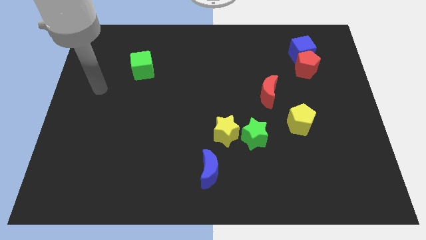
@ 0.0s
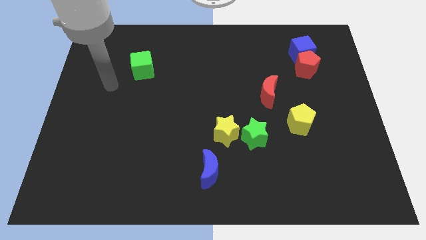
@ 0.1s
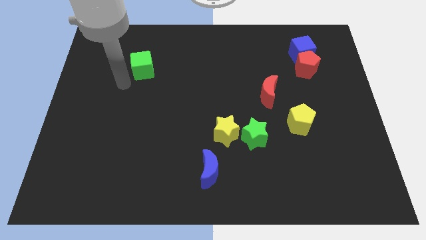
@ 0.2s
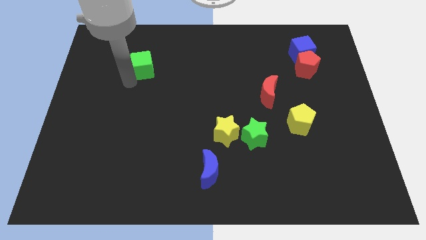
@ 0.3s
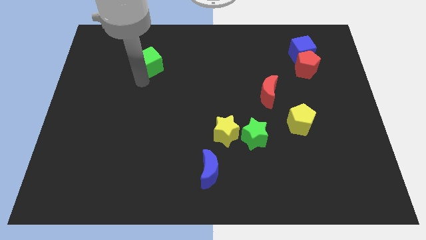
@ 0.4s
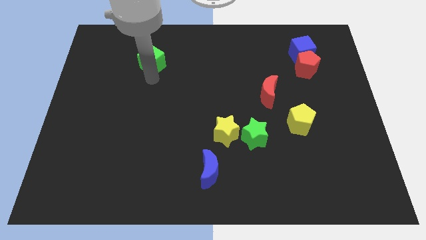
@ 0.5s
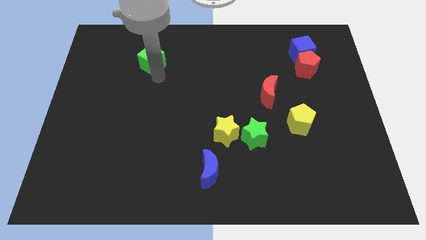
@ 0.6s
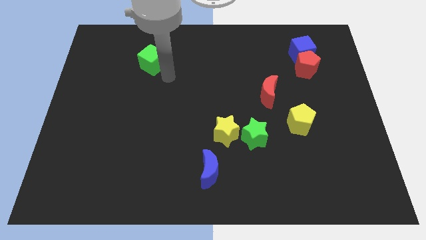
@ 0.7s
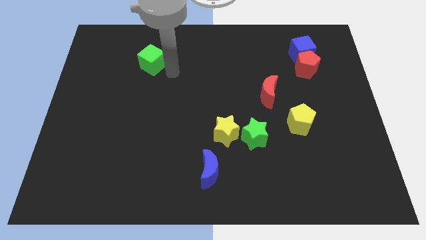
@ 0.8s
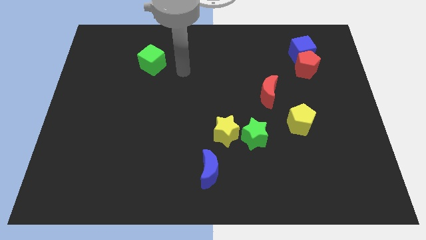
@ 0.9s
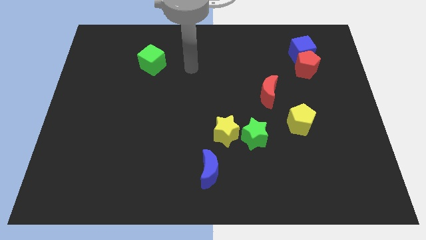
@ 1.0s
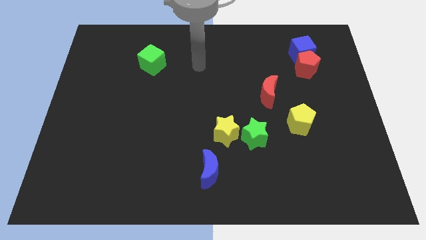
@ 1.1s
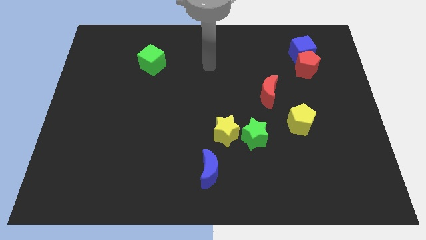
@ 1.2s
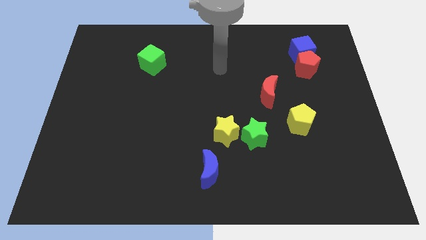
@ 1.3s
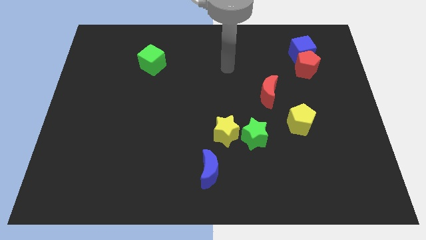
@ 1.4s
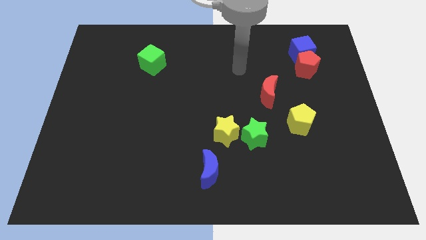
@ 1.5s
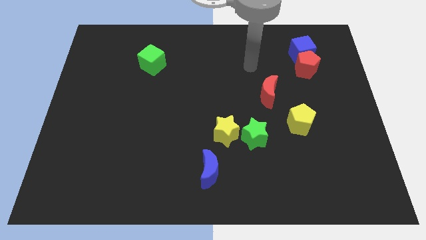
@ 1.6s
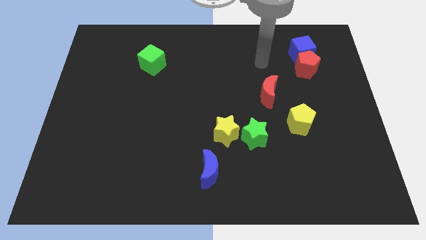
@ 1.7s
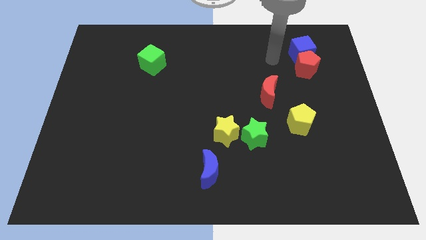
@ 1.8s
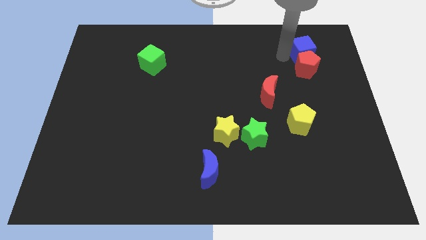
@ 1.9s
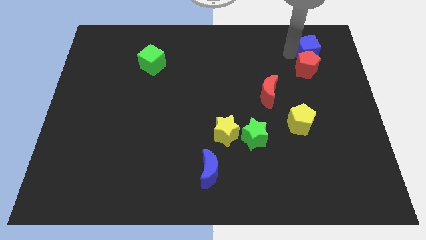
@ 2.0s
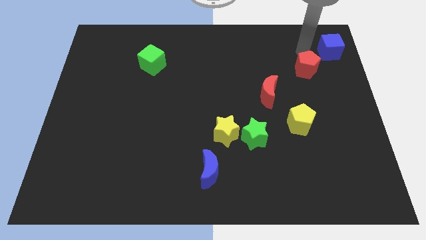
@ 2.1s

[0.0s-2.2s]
move the red pentagon away from the blue cube

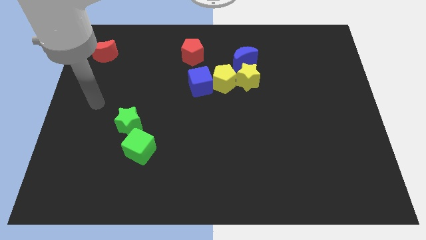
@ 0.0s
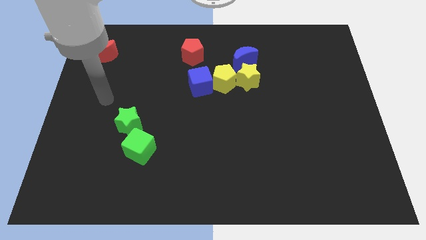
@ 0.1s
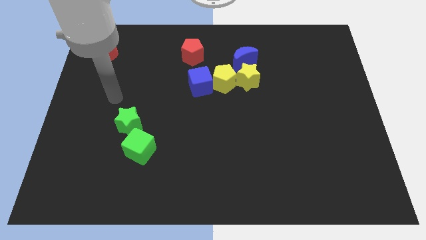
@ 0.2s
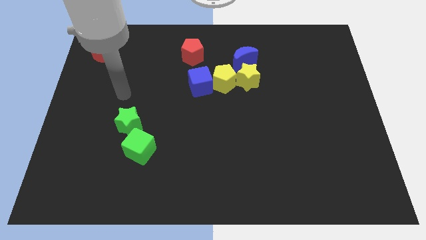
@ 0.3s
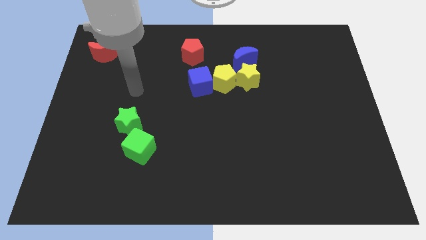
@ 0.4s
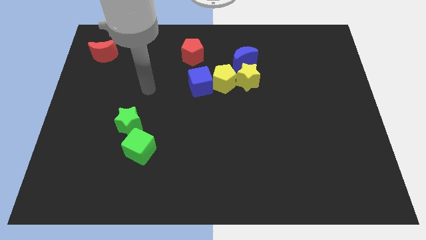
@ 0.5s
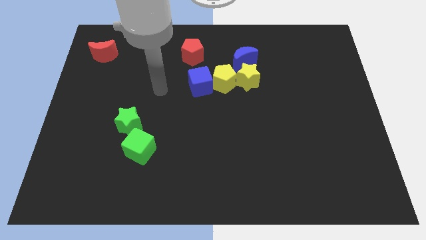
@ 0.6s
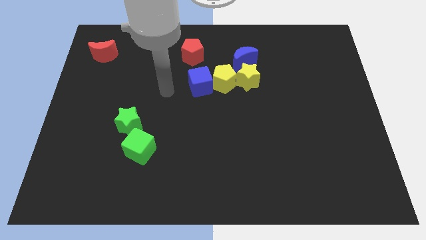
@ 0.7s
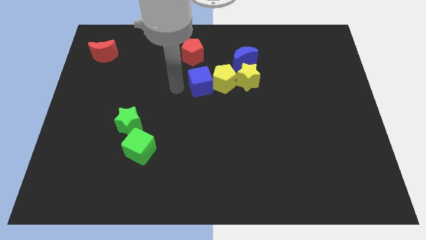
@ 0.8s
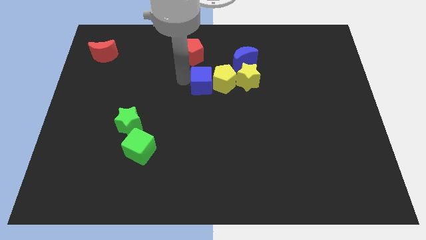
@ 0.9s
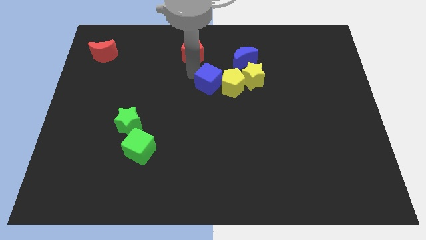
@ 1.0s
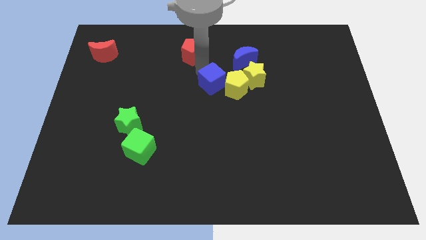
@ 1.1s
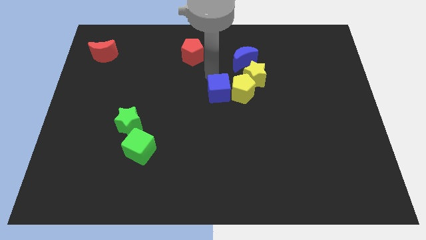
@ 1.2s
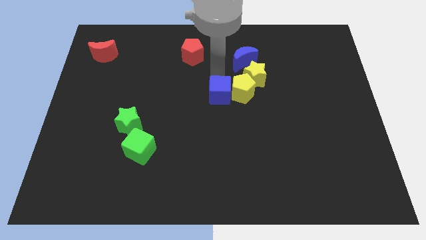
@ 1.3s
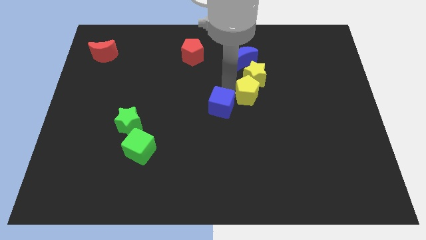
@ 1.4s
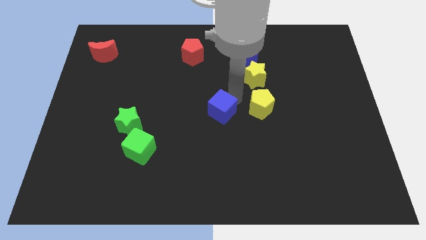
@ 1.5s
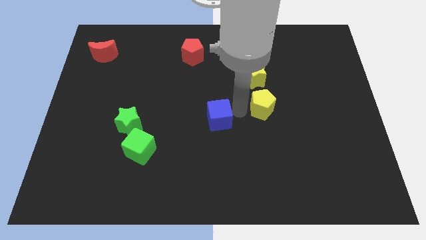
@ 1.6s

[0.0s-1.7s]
separate the blue cube from the yellow pentagon

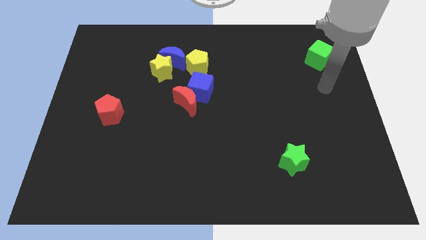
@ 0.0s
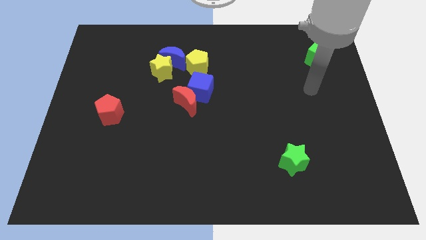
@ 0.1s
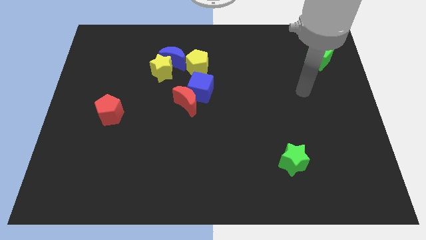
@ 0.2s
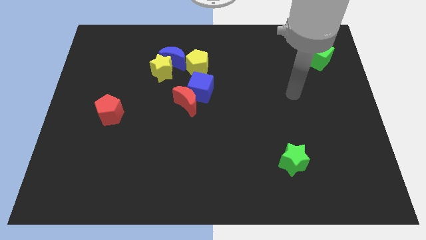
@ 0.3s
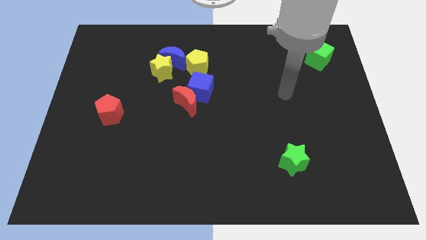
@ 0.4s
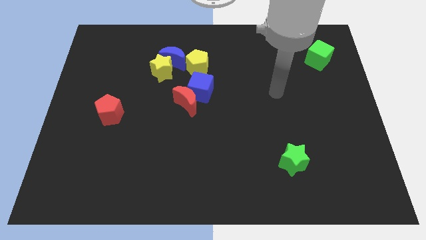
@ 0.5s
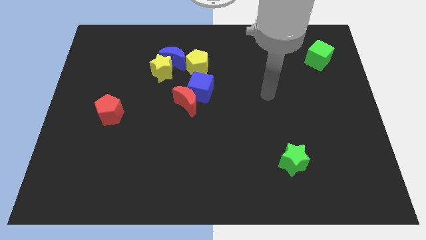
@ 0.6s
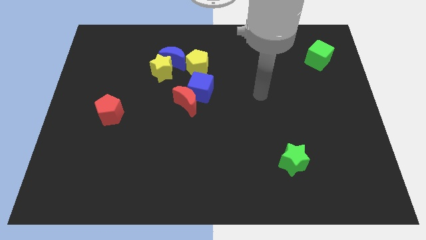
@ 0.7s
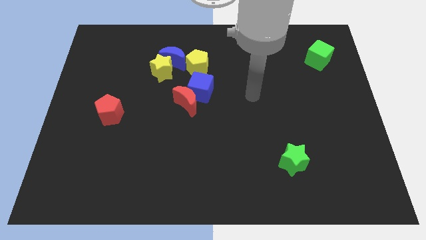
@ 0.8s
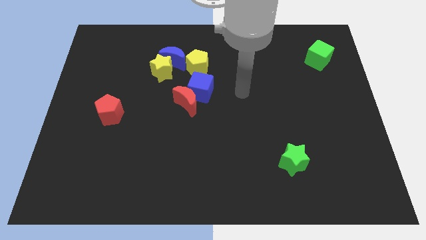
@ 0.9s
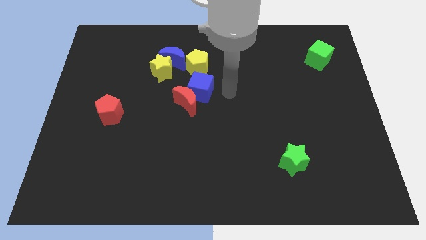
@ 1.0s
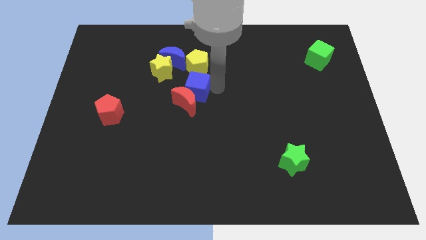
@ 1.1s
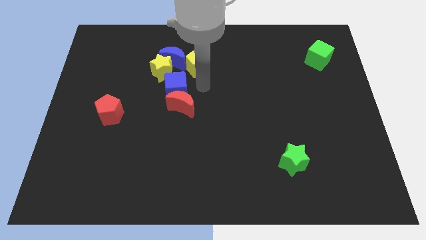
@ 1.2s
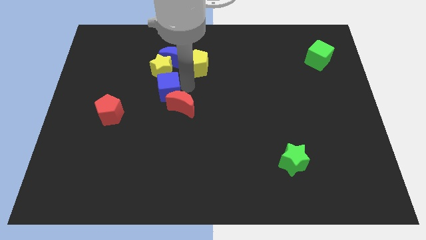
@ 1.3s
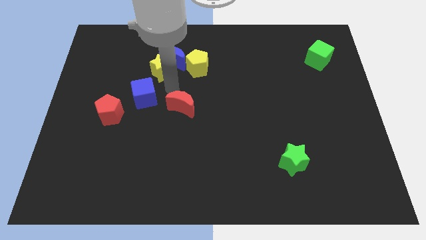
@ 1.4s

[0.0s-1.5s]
pull the red moon apart from the blue cube

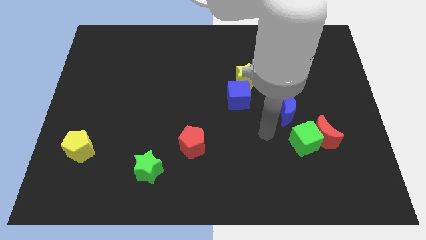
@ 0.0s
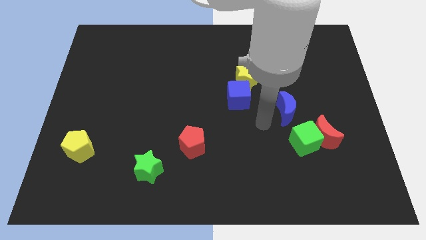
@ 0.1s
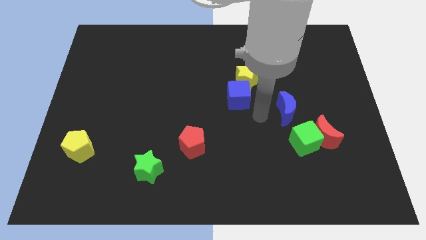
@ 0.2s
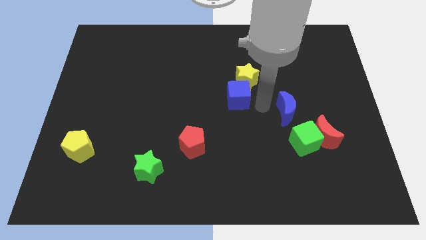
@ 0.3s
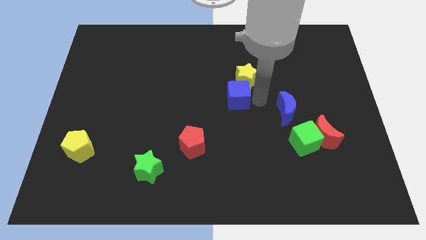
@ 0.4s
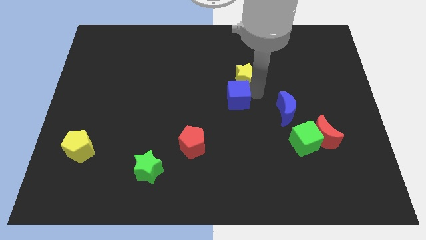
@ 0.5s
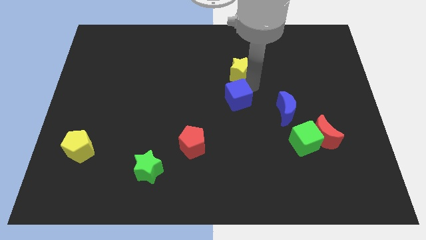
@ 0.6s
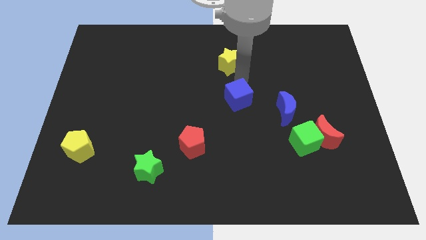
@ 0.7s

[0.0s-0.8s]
move the blue cube away from the yellow star

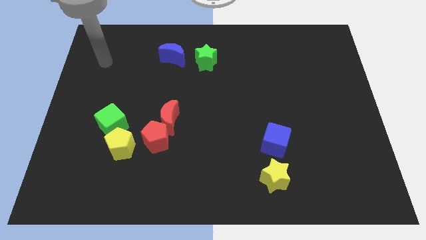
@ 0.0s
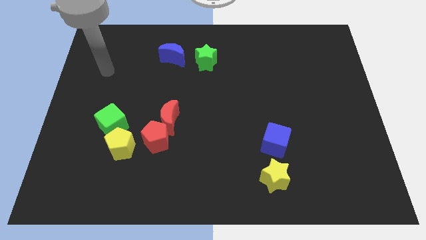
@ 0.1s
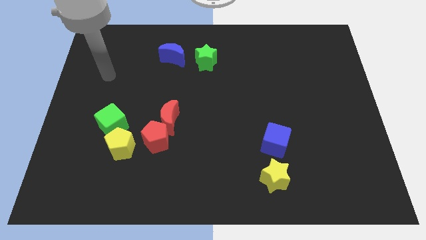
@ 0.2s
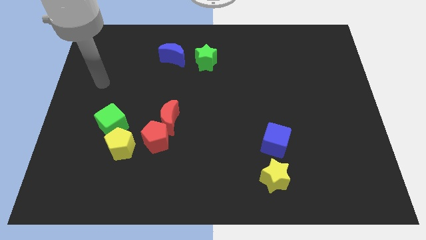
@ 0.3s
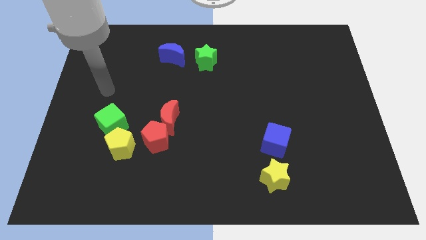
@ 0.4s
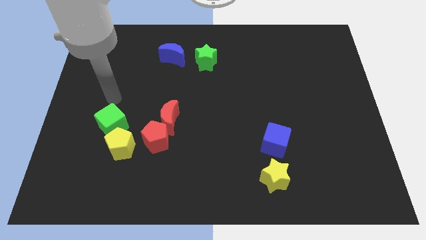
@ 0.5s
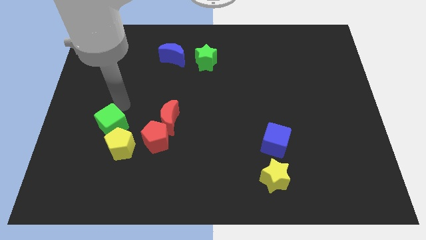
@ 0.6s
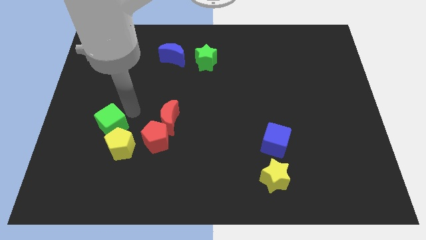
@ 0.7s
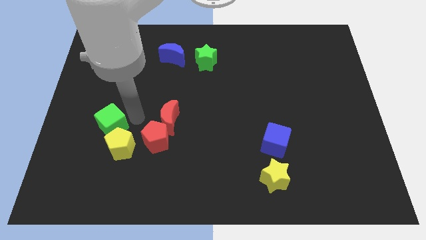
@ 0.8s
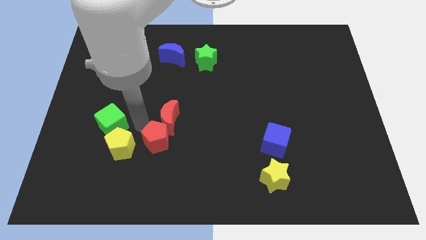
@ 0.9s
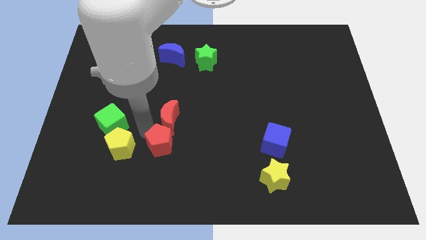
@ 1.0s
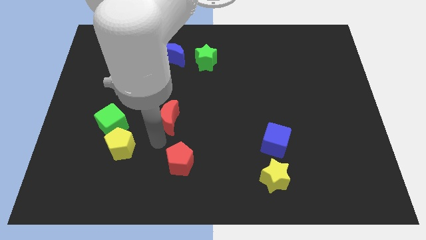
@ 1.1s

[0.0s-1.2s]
pull the red moon apart from the red pentagon

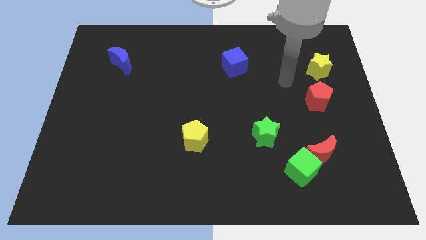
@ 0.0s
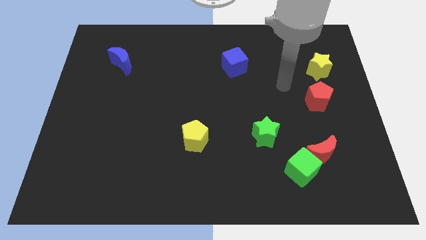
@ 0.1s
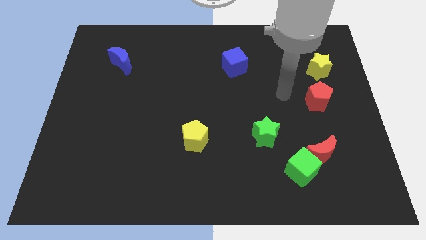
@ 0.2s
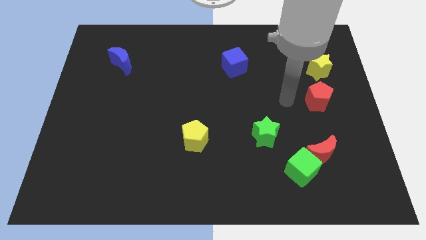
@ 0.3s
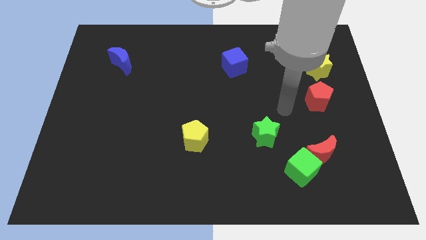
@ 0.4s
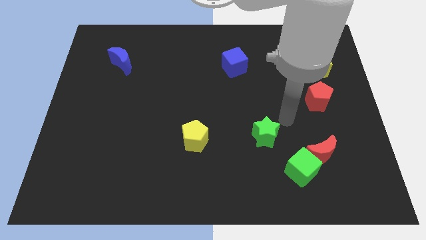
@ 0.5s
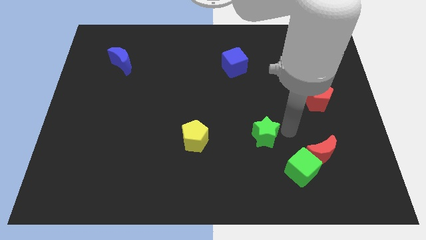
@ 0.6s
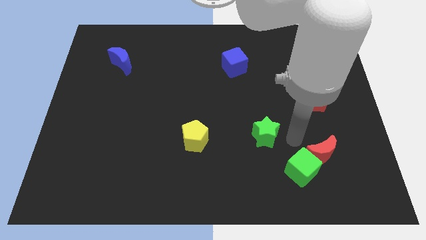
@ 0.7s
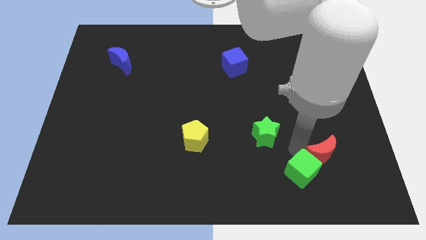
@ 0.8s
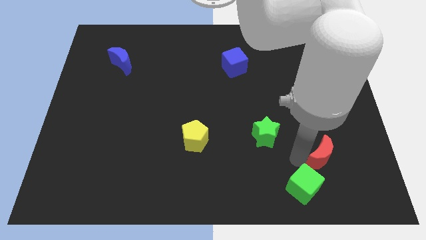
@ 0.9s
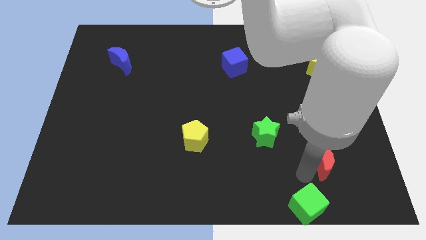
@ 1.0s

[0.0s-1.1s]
separate the red moon from the green cube

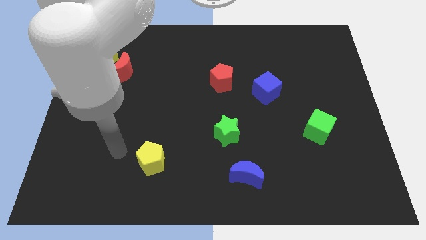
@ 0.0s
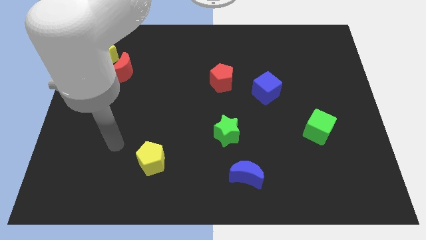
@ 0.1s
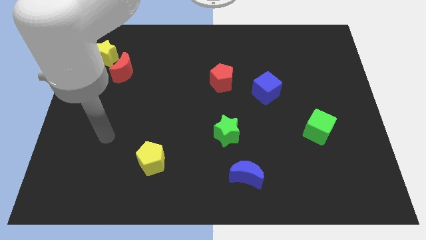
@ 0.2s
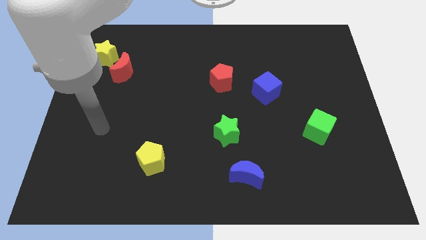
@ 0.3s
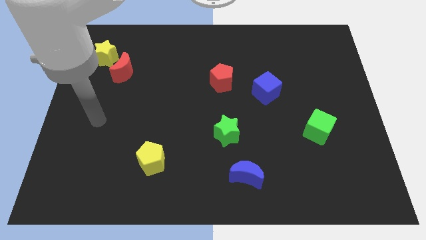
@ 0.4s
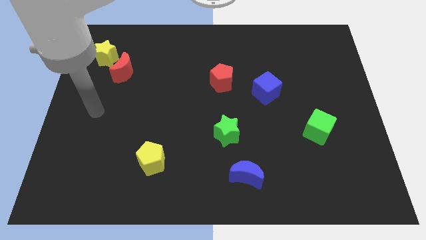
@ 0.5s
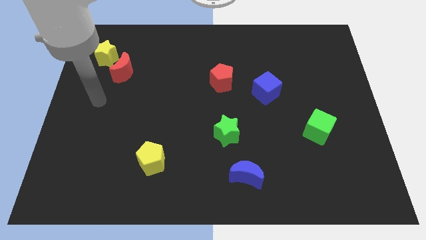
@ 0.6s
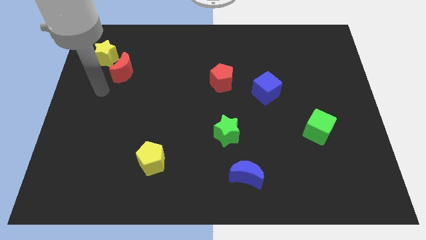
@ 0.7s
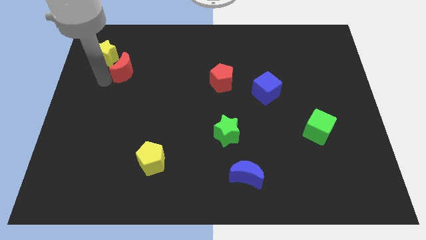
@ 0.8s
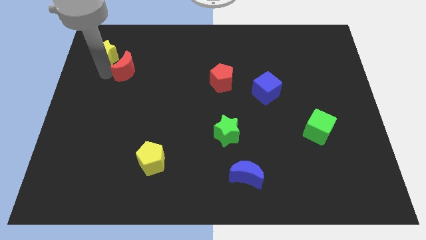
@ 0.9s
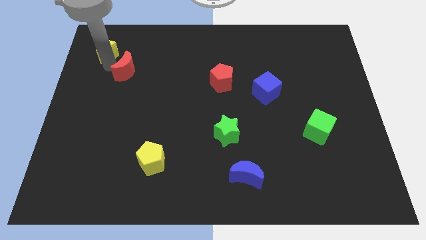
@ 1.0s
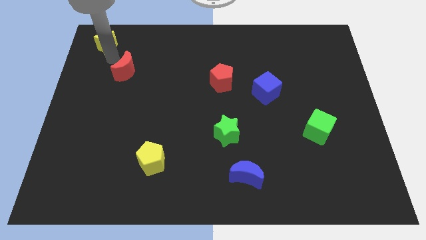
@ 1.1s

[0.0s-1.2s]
pull the red moon apart from the yellow star
